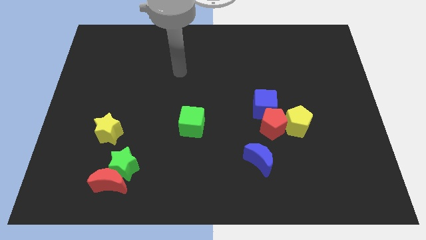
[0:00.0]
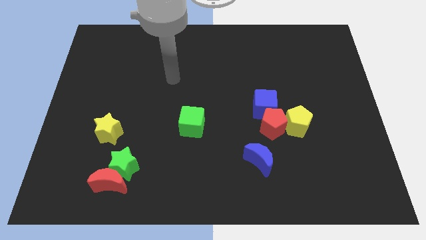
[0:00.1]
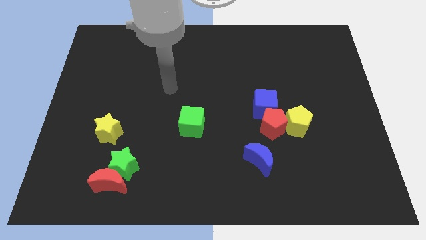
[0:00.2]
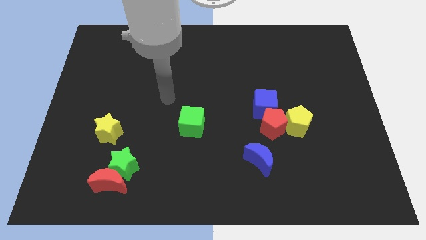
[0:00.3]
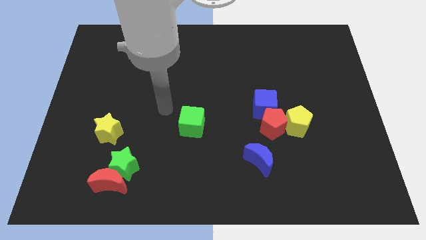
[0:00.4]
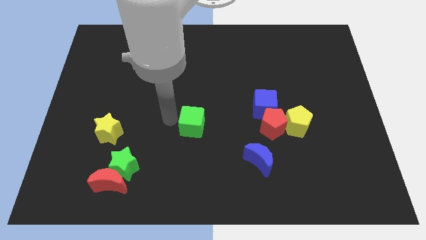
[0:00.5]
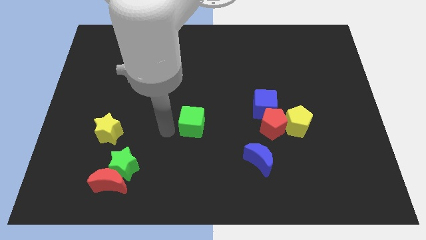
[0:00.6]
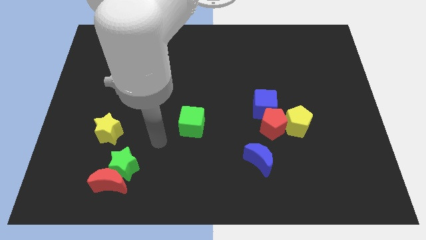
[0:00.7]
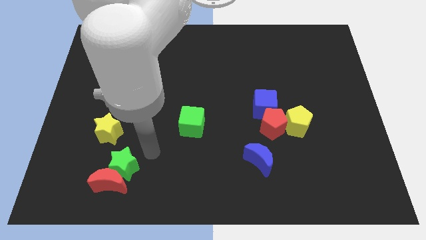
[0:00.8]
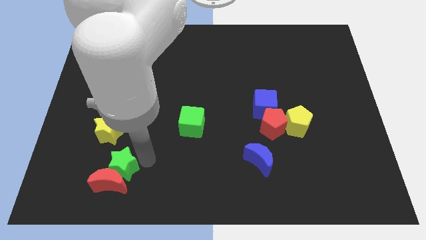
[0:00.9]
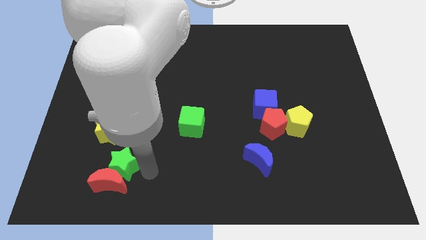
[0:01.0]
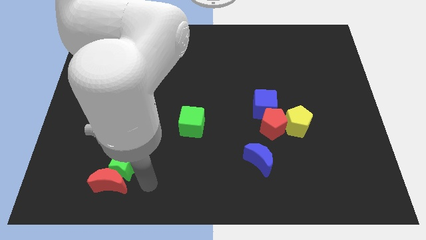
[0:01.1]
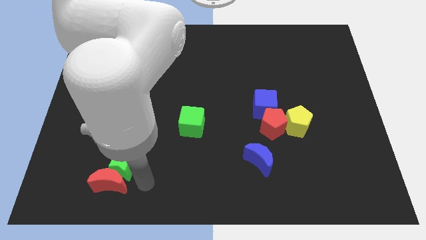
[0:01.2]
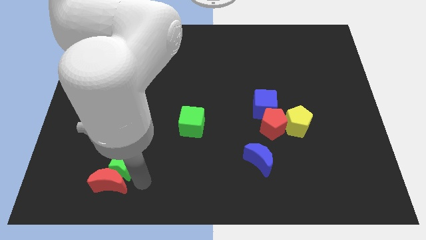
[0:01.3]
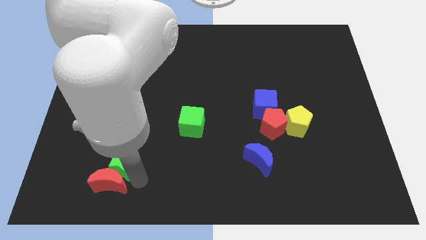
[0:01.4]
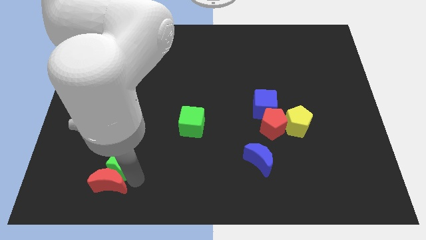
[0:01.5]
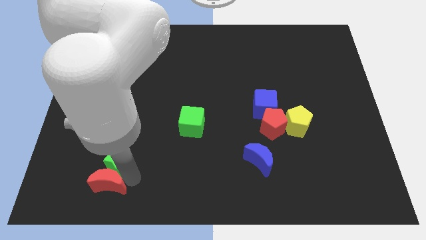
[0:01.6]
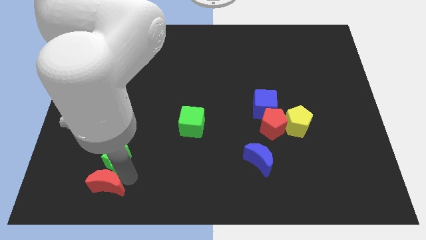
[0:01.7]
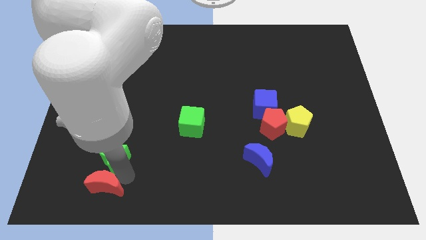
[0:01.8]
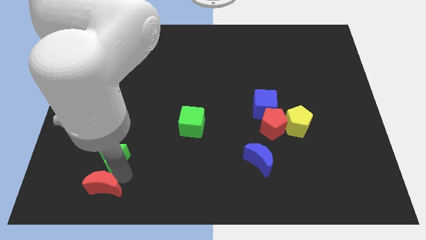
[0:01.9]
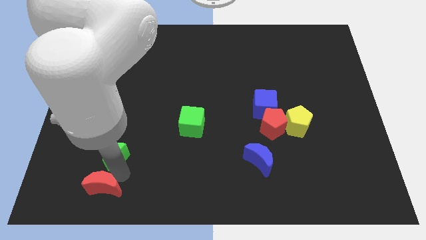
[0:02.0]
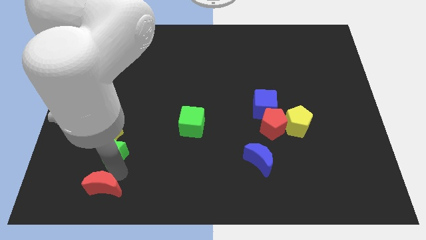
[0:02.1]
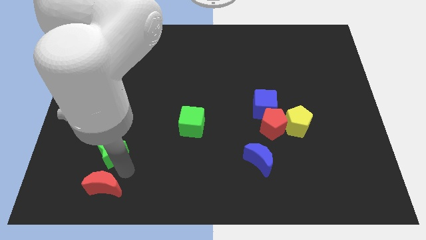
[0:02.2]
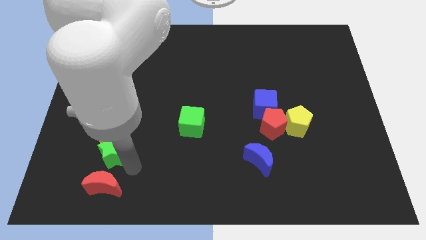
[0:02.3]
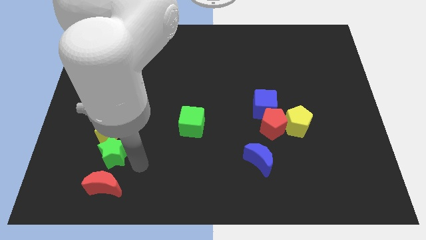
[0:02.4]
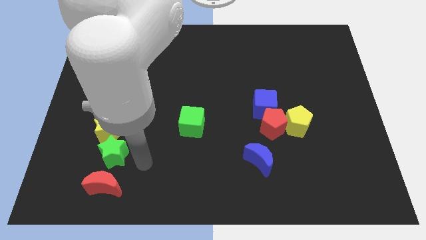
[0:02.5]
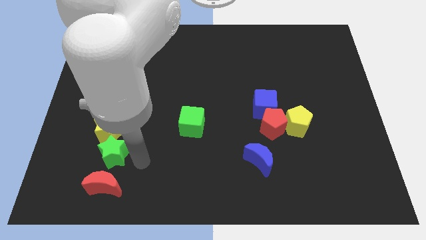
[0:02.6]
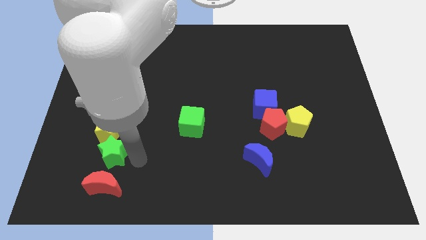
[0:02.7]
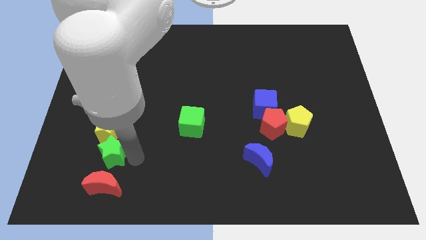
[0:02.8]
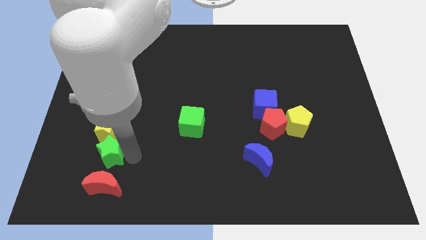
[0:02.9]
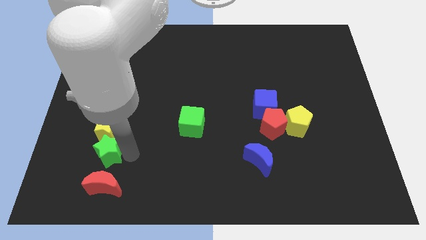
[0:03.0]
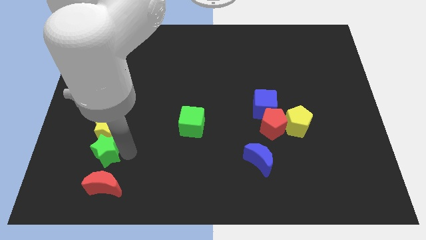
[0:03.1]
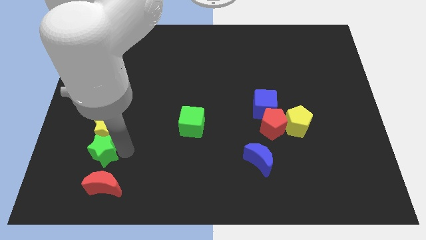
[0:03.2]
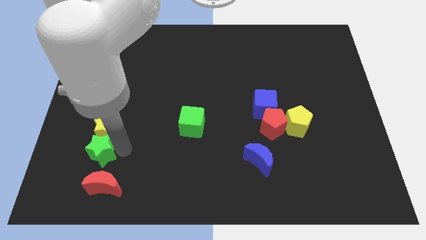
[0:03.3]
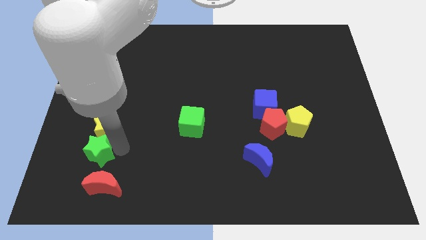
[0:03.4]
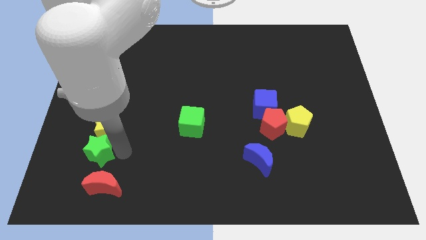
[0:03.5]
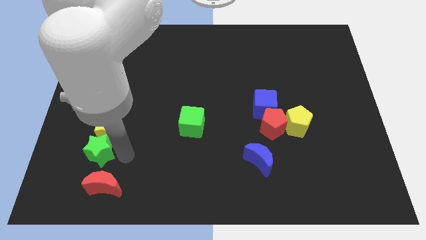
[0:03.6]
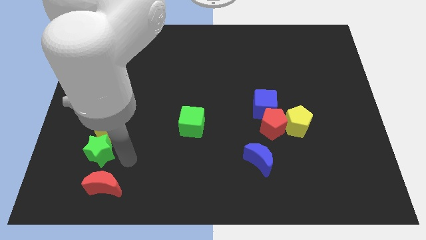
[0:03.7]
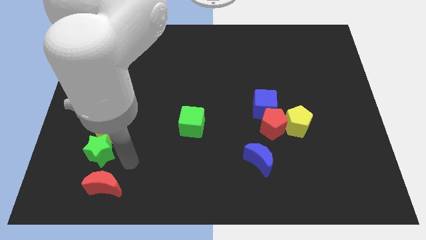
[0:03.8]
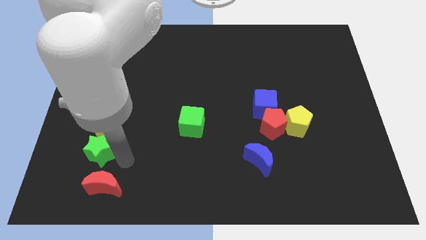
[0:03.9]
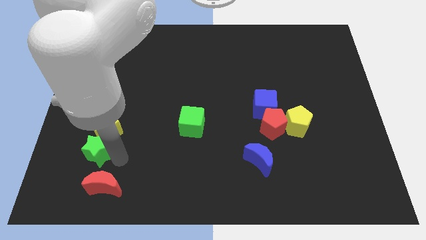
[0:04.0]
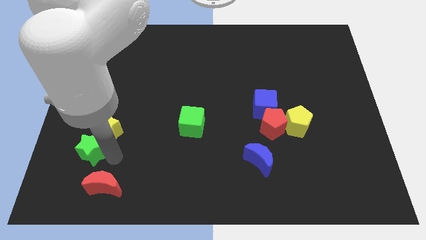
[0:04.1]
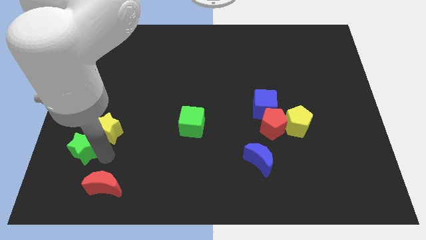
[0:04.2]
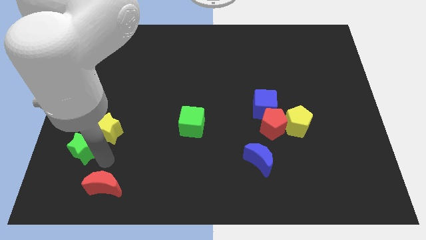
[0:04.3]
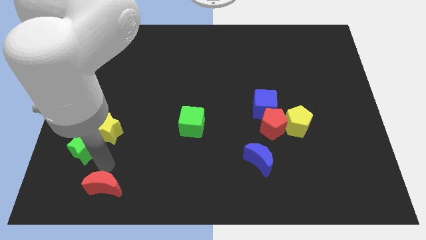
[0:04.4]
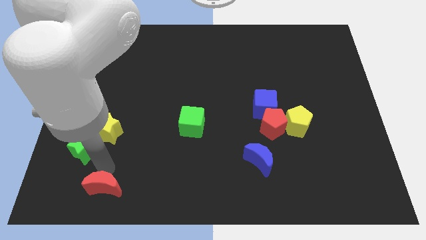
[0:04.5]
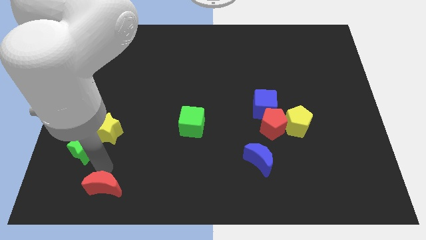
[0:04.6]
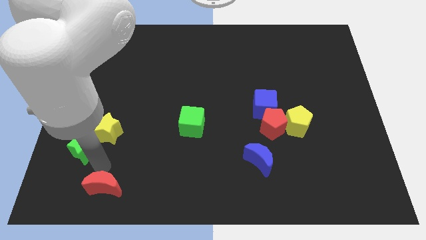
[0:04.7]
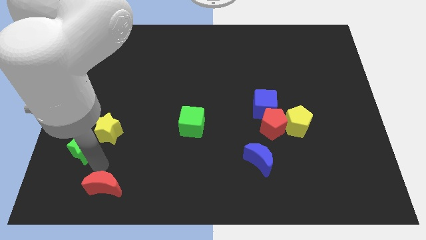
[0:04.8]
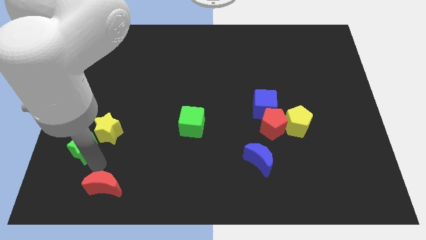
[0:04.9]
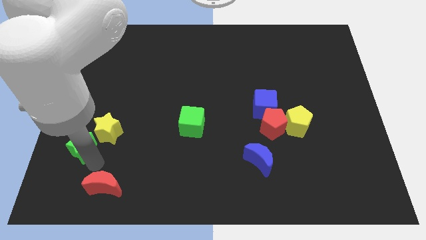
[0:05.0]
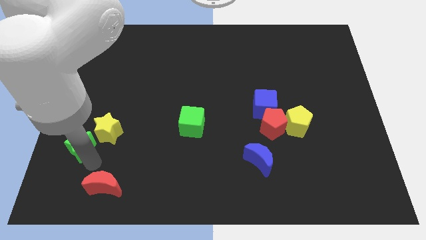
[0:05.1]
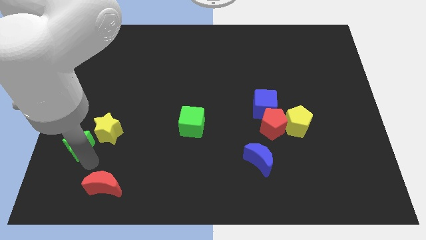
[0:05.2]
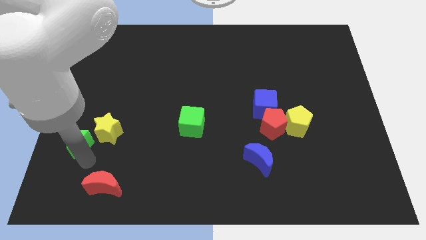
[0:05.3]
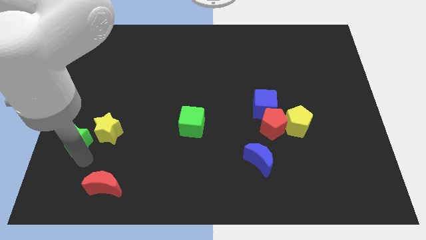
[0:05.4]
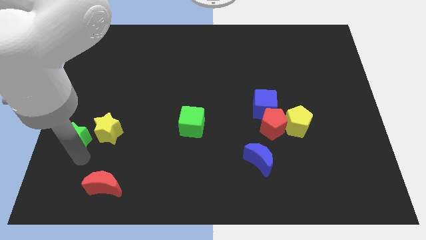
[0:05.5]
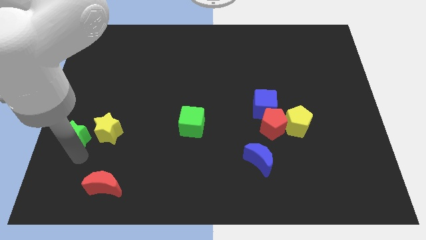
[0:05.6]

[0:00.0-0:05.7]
move the green star to the left side
